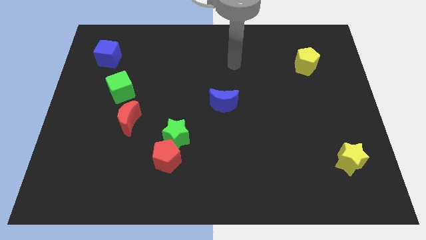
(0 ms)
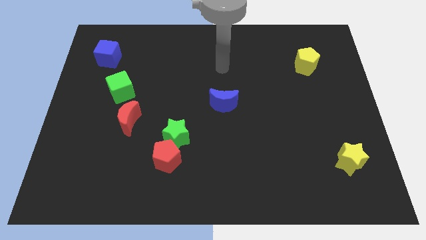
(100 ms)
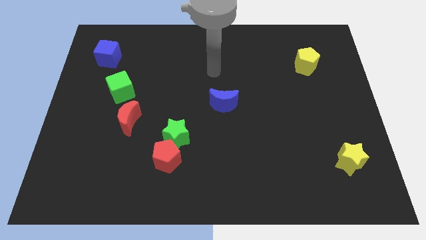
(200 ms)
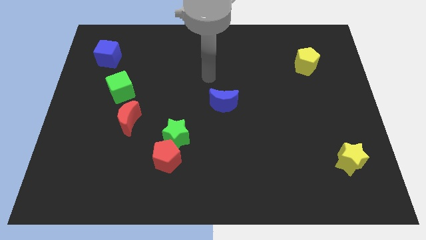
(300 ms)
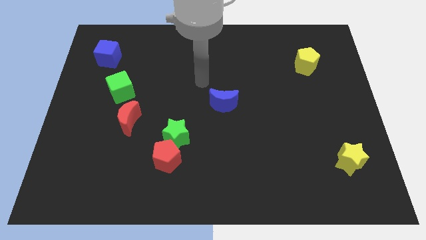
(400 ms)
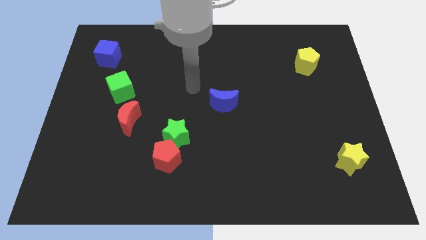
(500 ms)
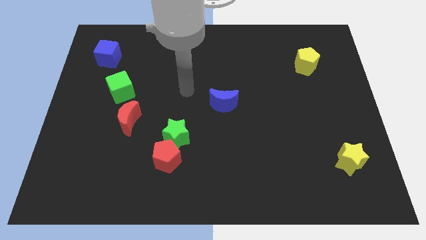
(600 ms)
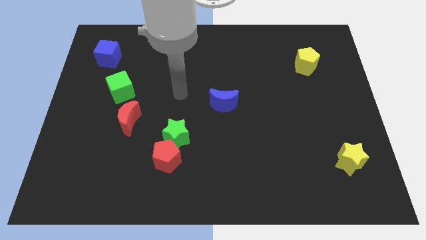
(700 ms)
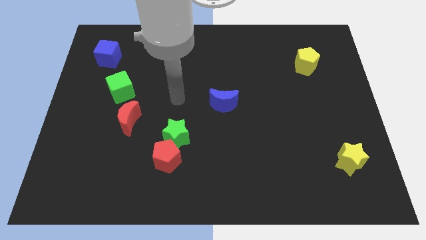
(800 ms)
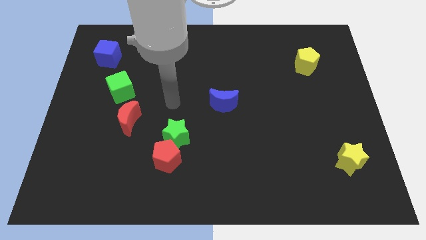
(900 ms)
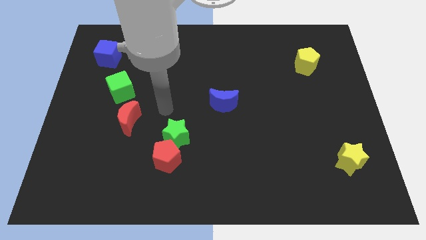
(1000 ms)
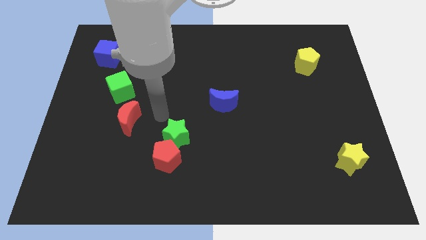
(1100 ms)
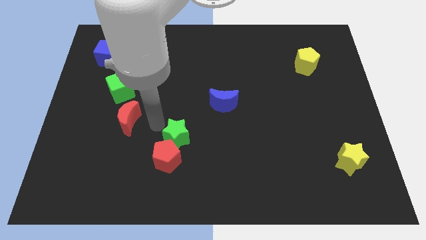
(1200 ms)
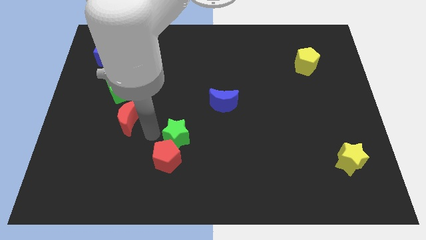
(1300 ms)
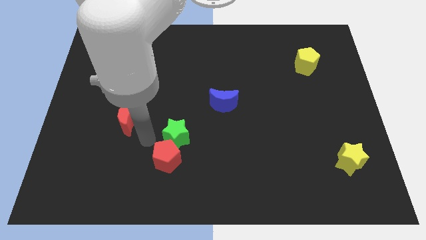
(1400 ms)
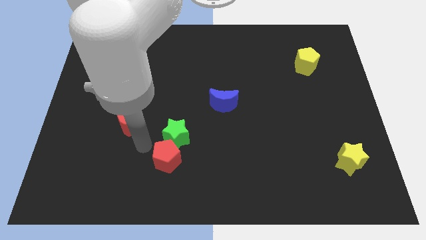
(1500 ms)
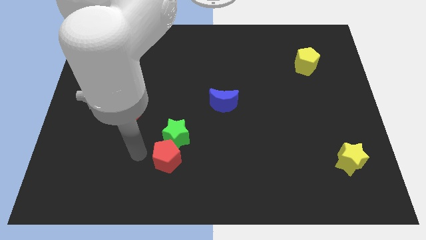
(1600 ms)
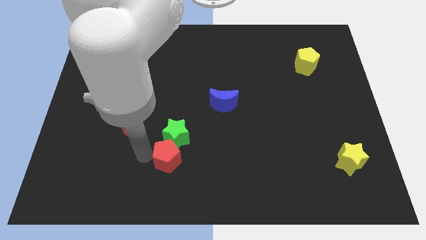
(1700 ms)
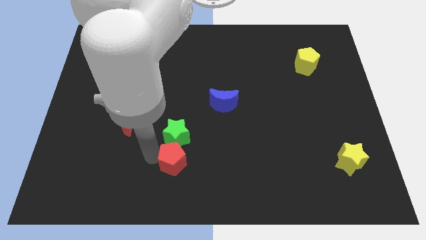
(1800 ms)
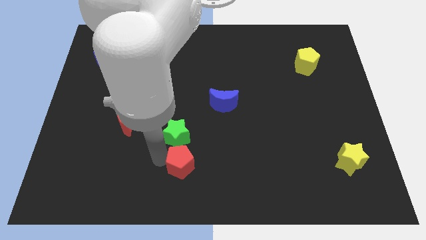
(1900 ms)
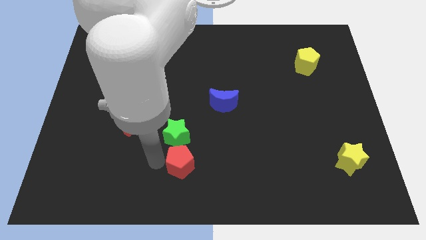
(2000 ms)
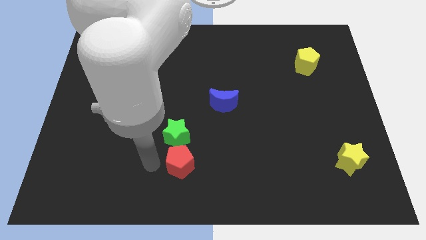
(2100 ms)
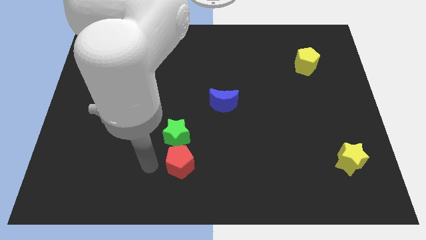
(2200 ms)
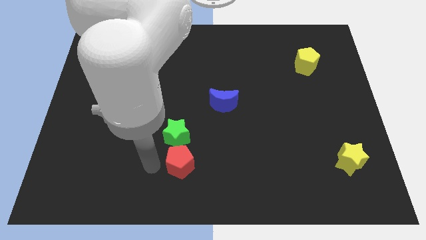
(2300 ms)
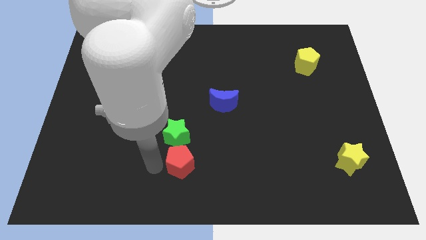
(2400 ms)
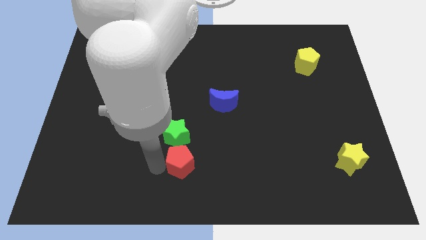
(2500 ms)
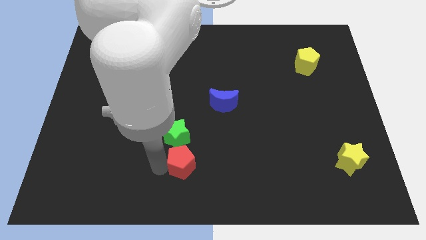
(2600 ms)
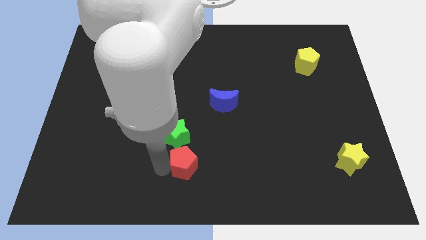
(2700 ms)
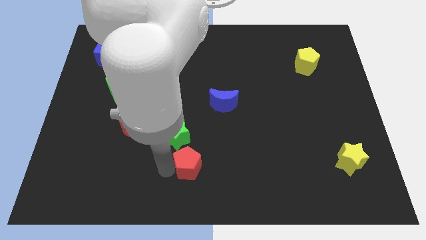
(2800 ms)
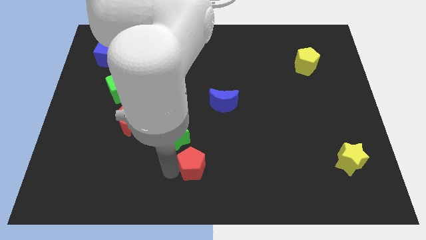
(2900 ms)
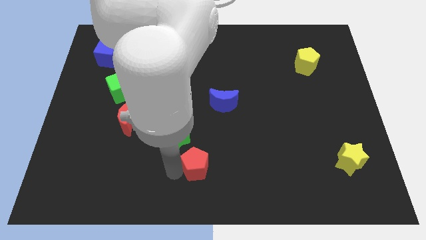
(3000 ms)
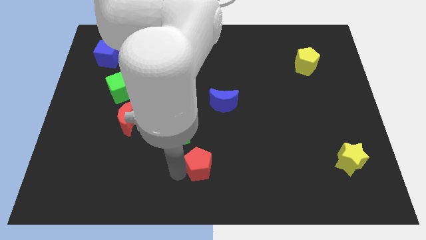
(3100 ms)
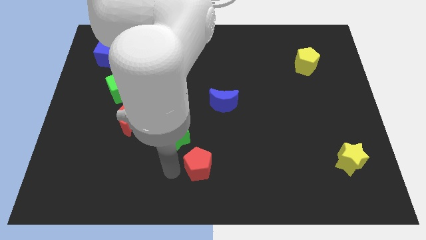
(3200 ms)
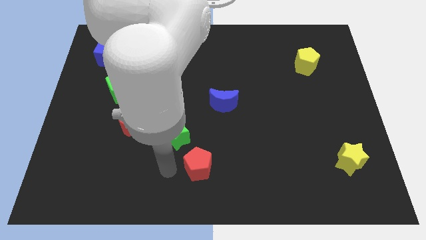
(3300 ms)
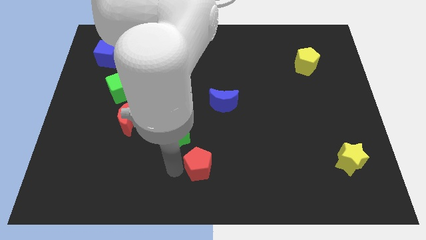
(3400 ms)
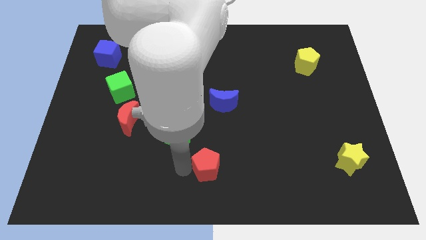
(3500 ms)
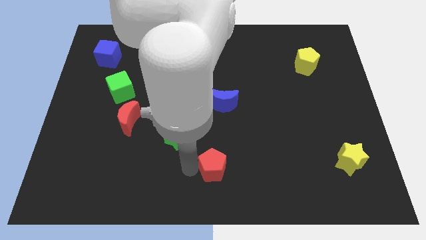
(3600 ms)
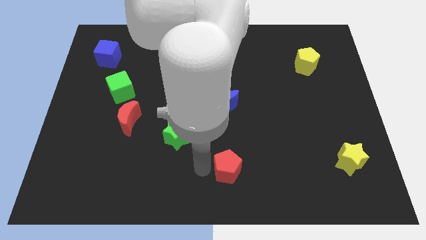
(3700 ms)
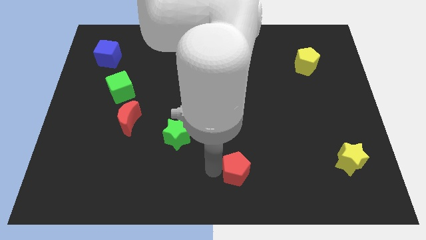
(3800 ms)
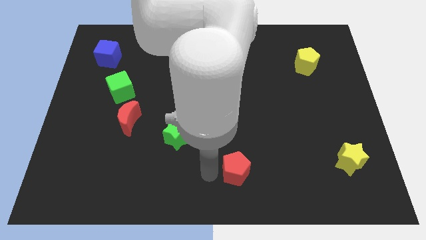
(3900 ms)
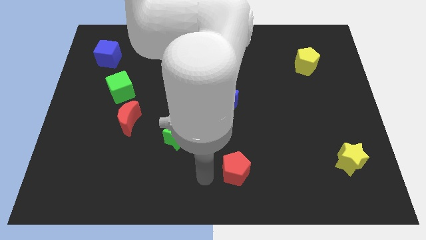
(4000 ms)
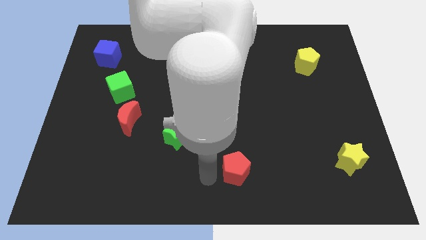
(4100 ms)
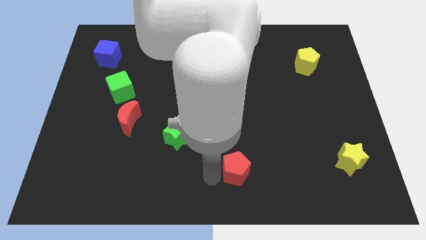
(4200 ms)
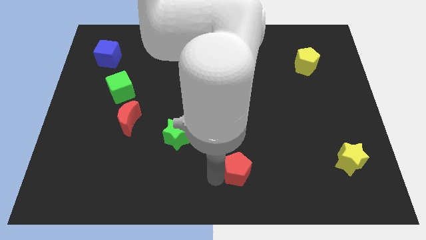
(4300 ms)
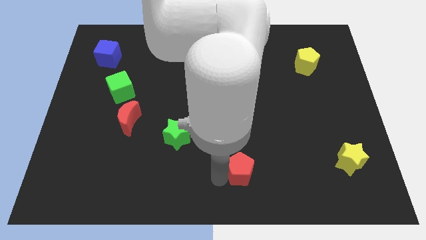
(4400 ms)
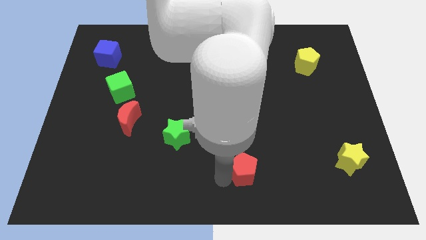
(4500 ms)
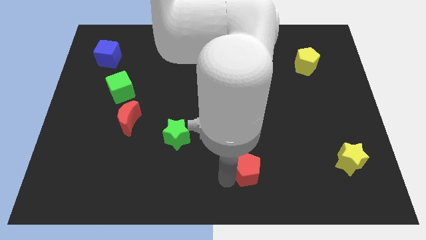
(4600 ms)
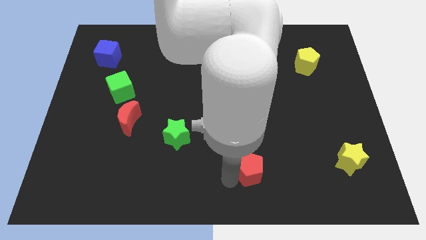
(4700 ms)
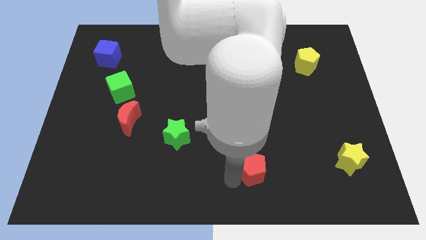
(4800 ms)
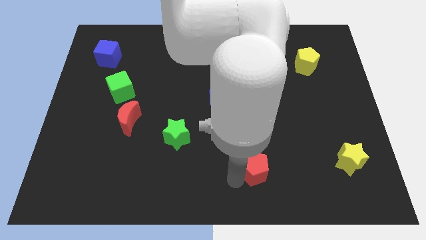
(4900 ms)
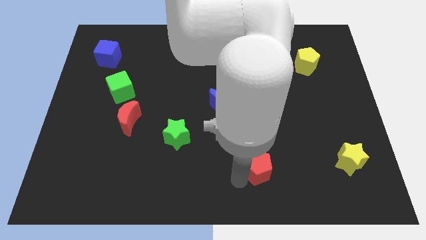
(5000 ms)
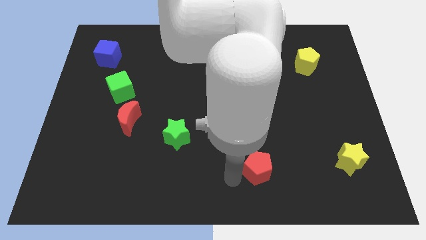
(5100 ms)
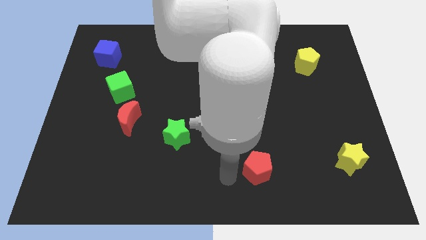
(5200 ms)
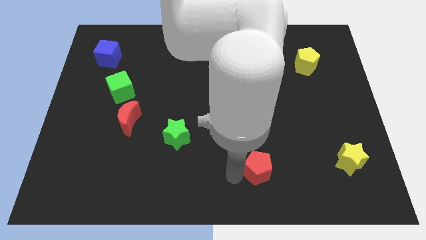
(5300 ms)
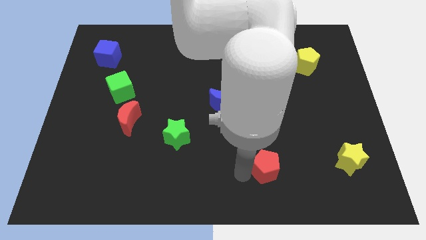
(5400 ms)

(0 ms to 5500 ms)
slide the red pentagon to the right

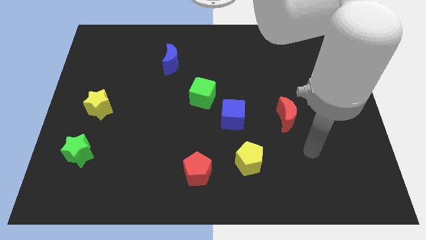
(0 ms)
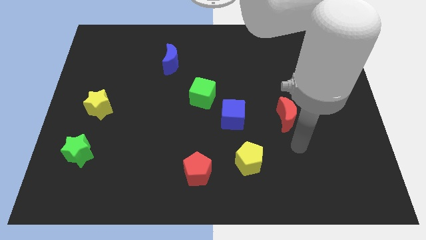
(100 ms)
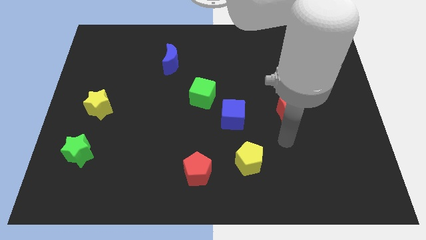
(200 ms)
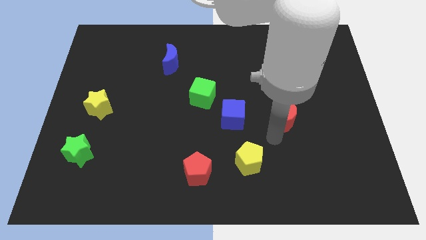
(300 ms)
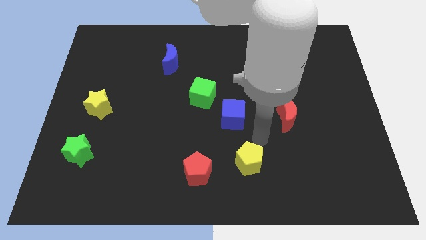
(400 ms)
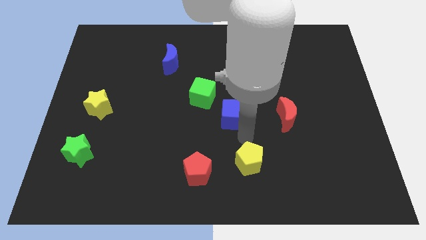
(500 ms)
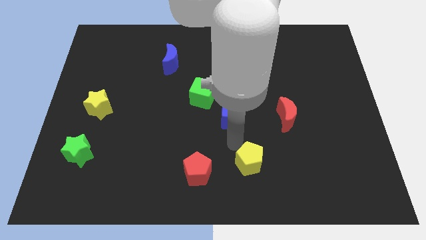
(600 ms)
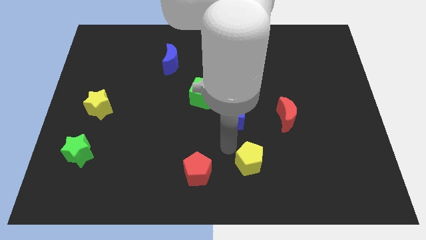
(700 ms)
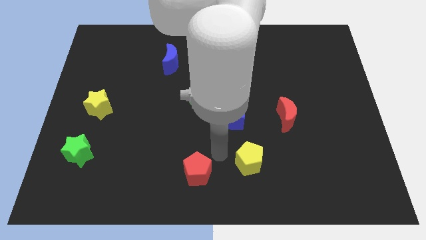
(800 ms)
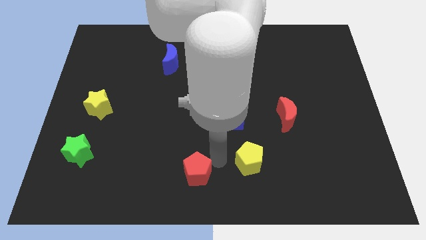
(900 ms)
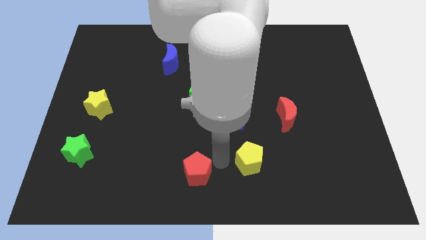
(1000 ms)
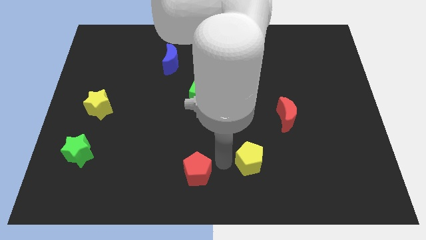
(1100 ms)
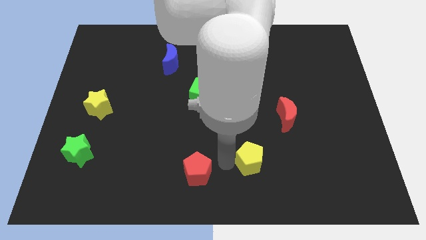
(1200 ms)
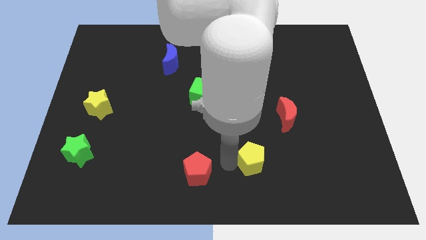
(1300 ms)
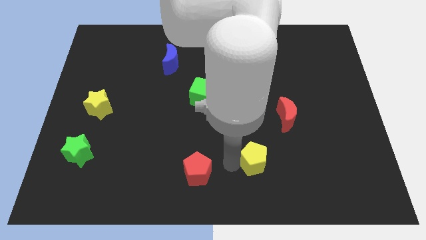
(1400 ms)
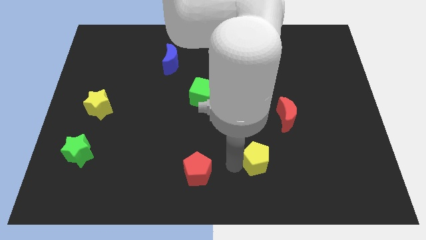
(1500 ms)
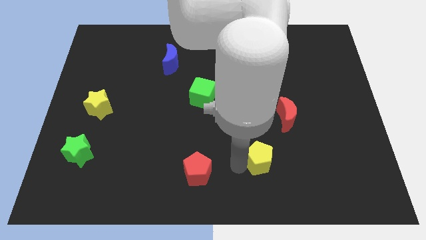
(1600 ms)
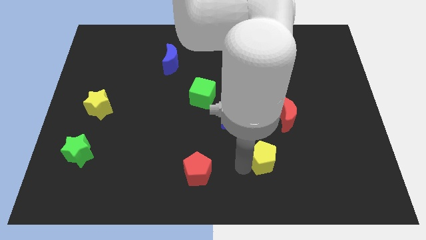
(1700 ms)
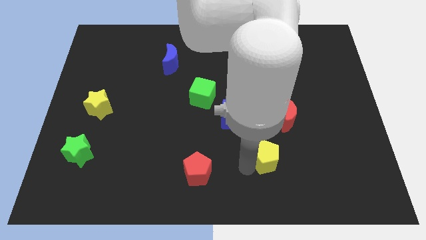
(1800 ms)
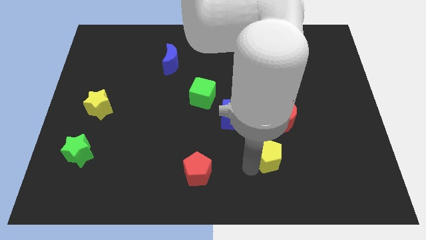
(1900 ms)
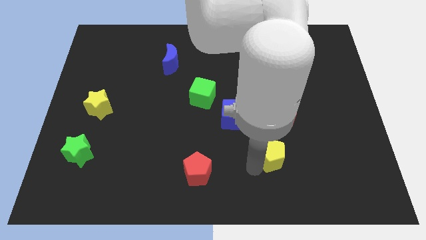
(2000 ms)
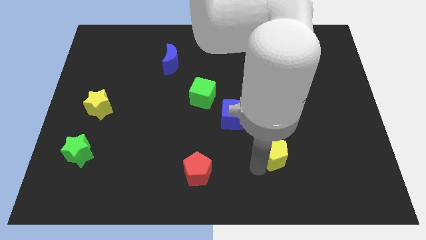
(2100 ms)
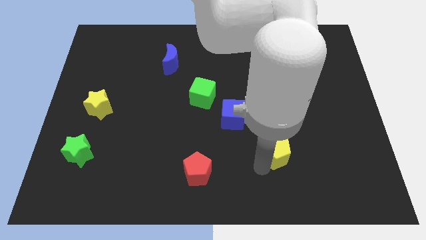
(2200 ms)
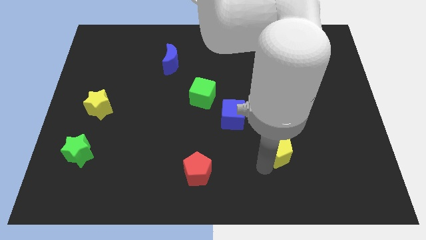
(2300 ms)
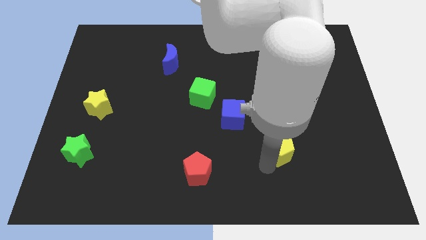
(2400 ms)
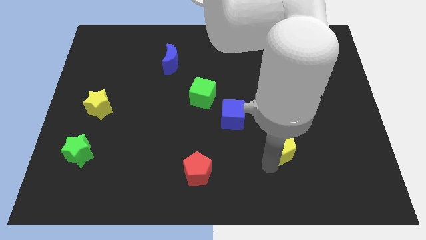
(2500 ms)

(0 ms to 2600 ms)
move the yellow pentagon somewhat to the right
